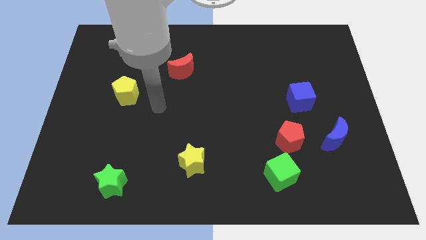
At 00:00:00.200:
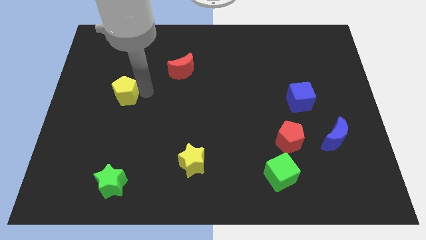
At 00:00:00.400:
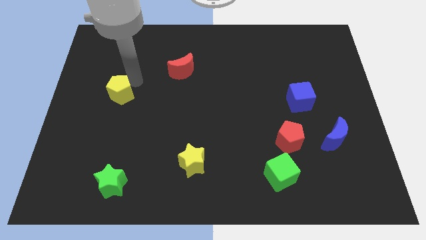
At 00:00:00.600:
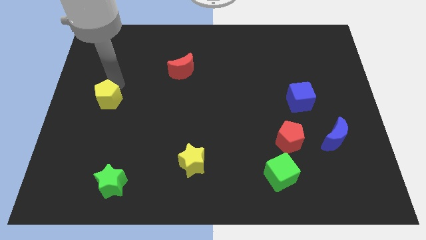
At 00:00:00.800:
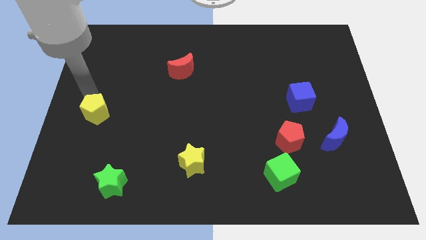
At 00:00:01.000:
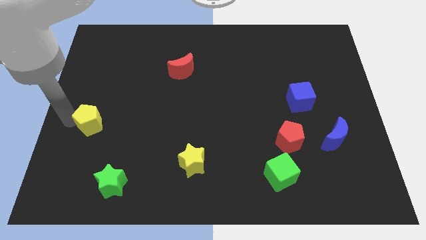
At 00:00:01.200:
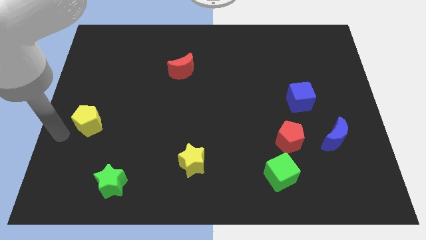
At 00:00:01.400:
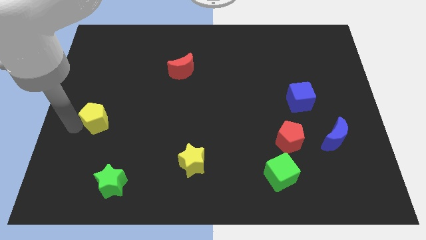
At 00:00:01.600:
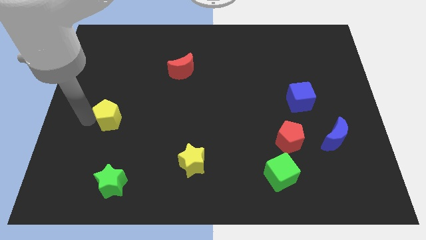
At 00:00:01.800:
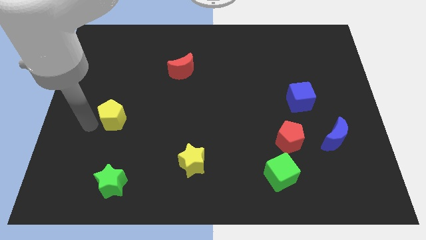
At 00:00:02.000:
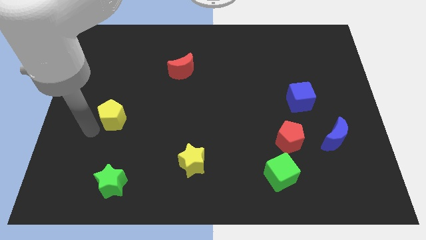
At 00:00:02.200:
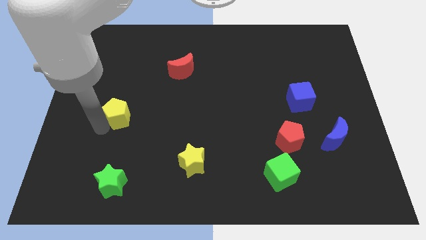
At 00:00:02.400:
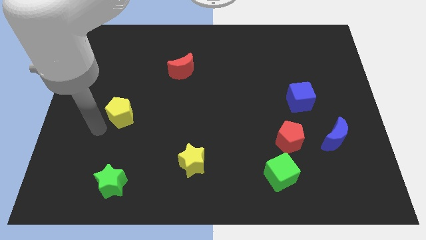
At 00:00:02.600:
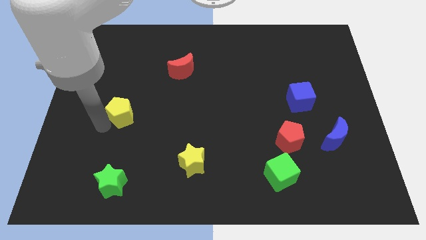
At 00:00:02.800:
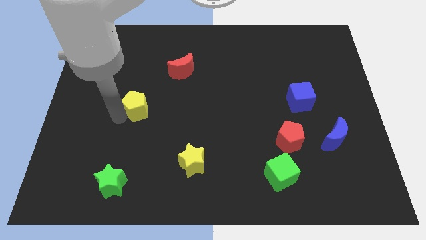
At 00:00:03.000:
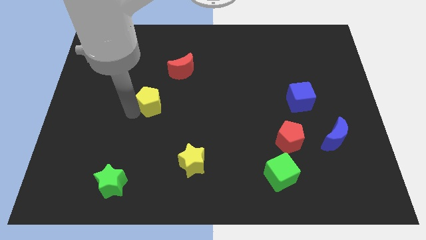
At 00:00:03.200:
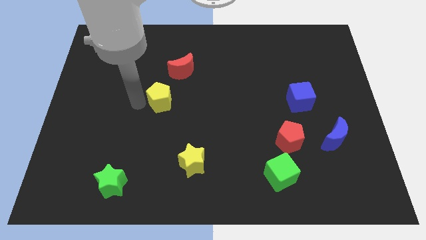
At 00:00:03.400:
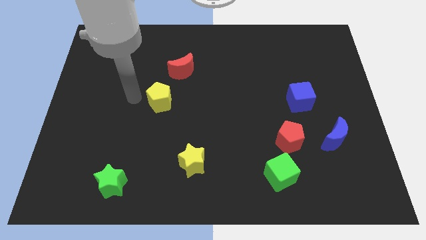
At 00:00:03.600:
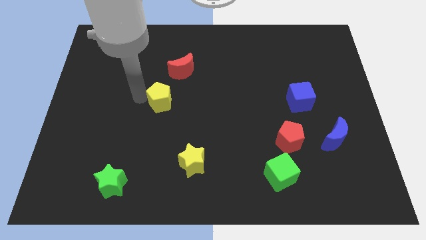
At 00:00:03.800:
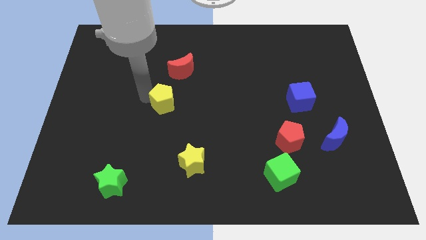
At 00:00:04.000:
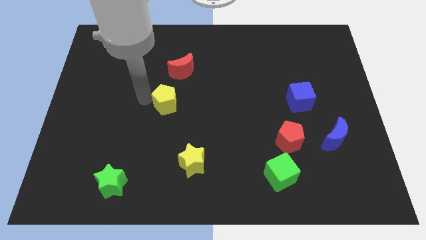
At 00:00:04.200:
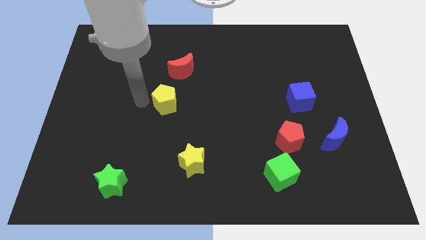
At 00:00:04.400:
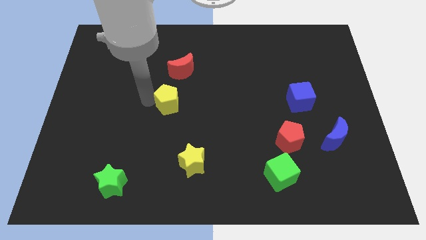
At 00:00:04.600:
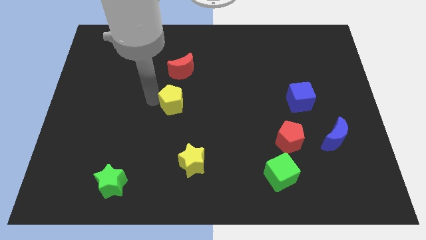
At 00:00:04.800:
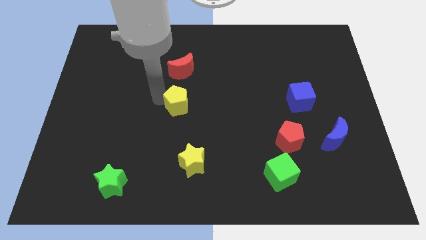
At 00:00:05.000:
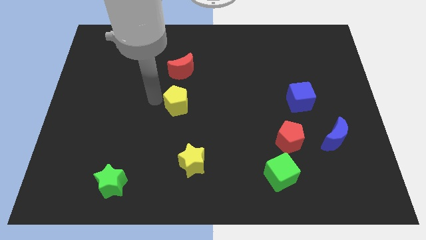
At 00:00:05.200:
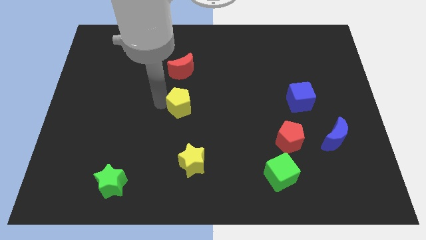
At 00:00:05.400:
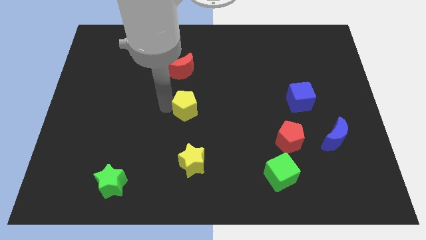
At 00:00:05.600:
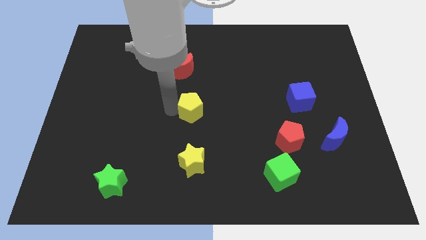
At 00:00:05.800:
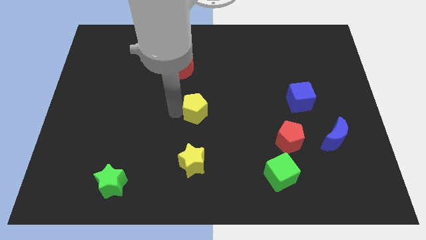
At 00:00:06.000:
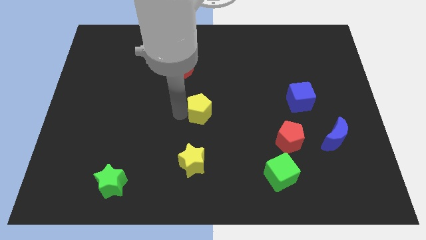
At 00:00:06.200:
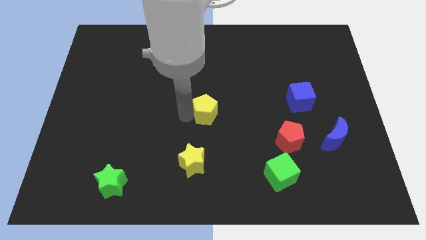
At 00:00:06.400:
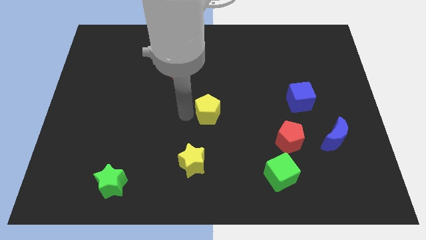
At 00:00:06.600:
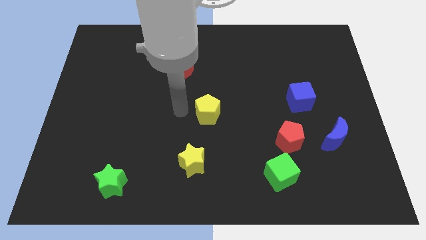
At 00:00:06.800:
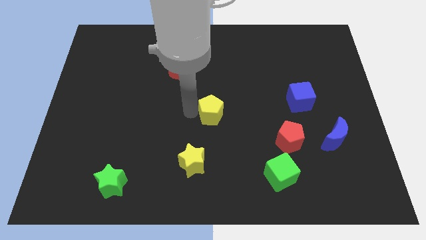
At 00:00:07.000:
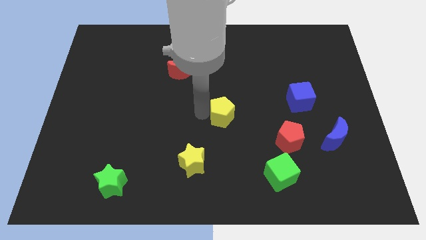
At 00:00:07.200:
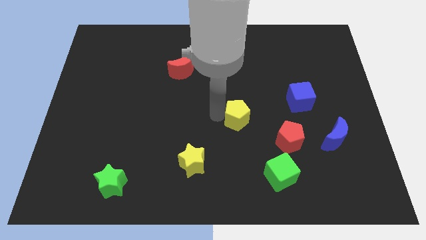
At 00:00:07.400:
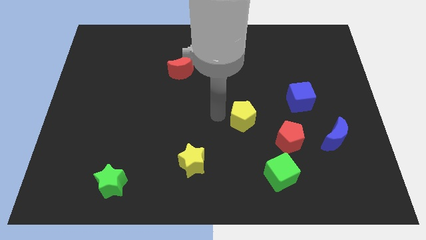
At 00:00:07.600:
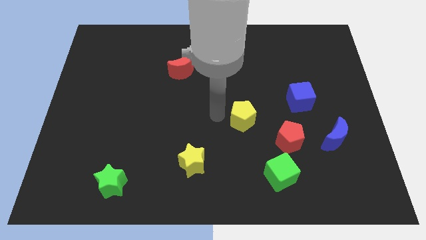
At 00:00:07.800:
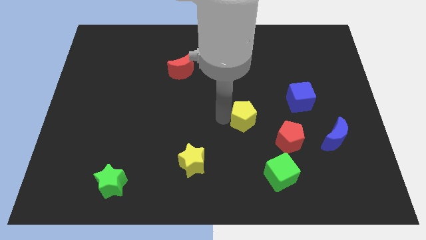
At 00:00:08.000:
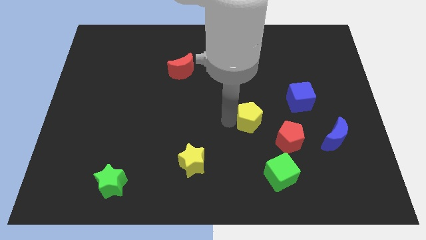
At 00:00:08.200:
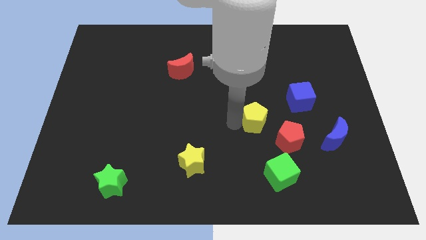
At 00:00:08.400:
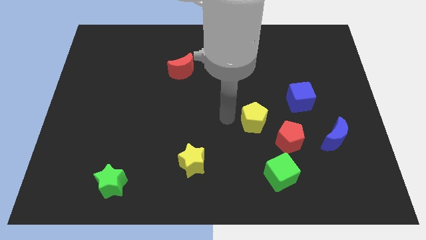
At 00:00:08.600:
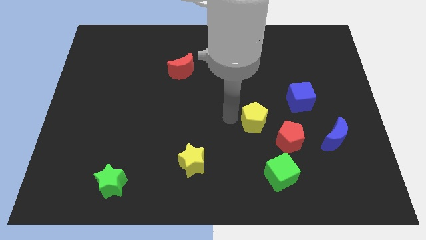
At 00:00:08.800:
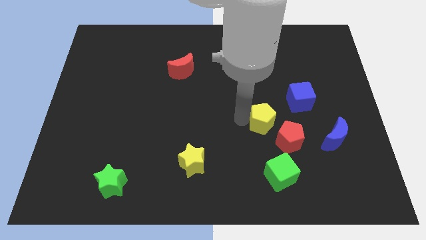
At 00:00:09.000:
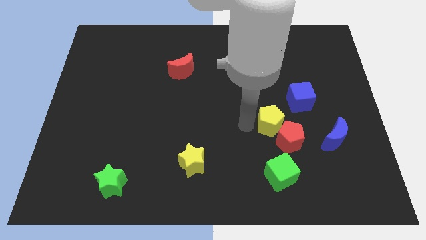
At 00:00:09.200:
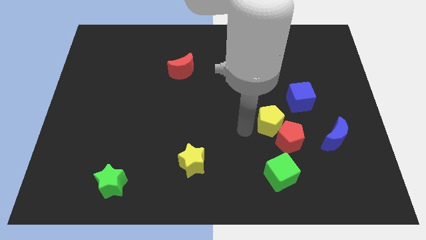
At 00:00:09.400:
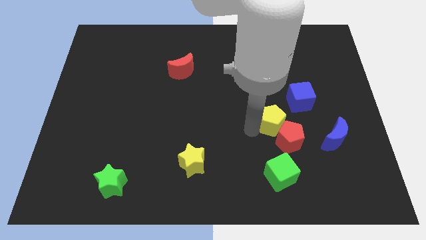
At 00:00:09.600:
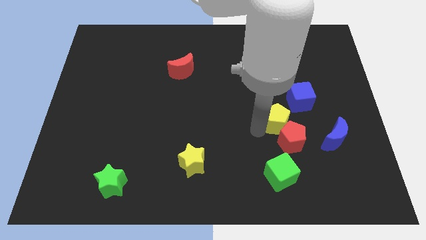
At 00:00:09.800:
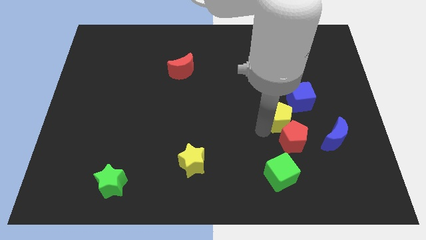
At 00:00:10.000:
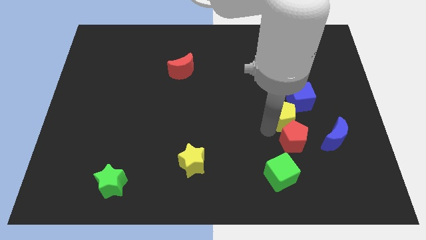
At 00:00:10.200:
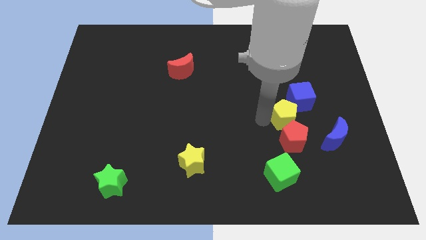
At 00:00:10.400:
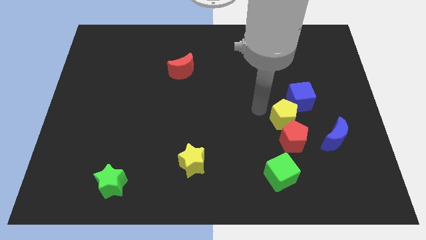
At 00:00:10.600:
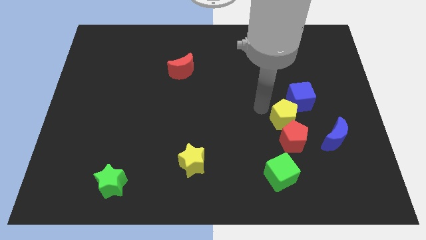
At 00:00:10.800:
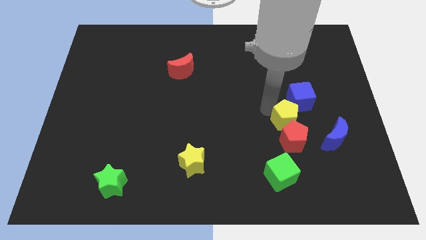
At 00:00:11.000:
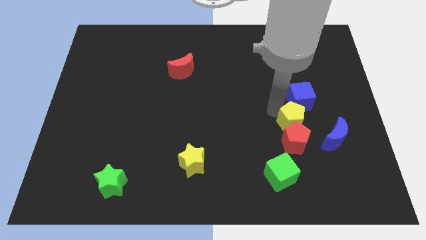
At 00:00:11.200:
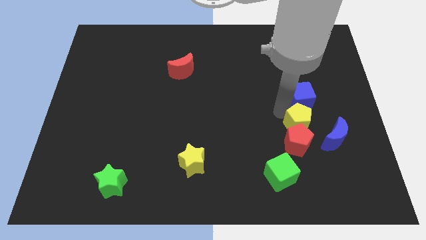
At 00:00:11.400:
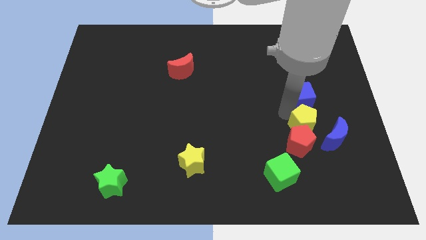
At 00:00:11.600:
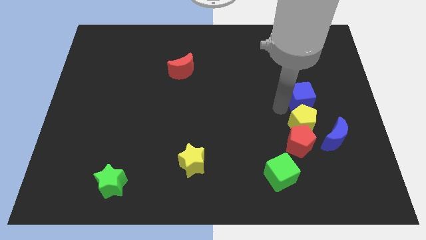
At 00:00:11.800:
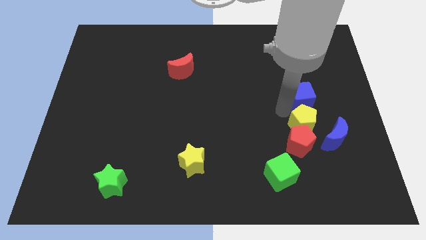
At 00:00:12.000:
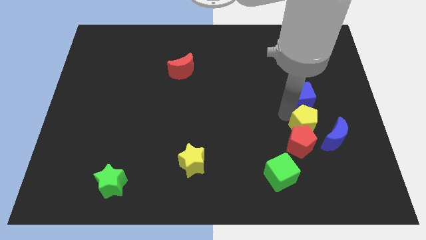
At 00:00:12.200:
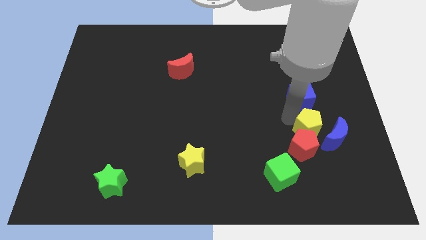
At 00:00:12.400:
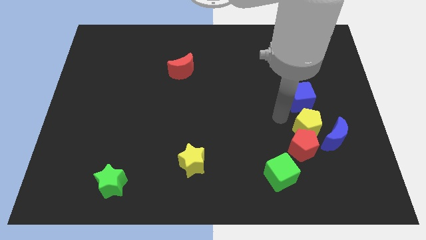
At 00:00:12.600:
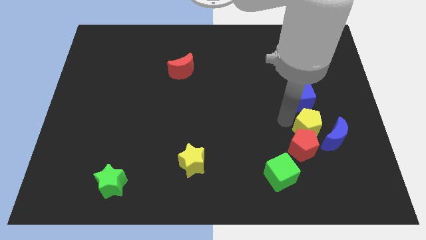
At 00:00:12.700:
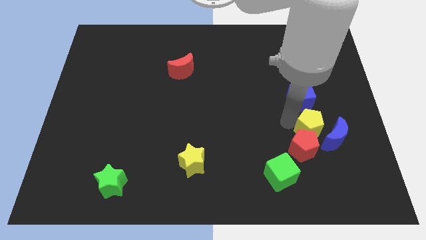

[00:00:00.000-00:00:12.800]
slide the yellow pentagon to the blue moon

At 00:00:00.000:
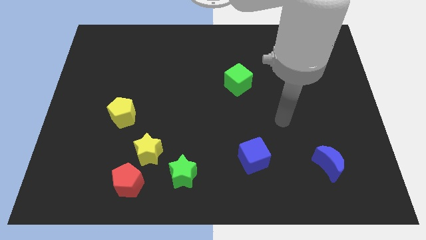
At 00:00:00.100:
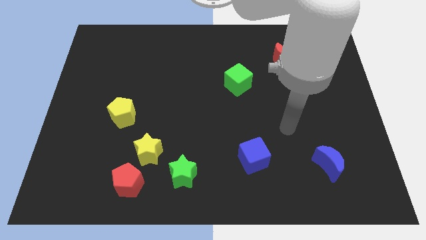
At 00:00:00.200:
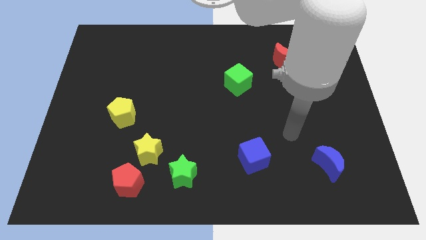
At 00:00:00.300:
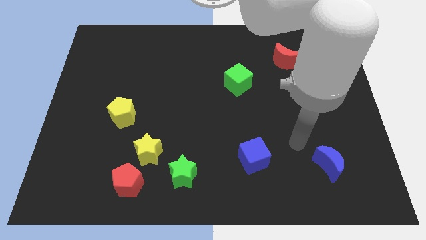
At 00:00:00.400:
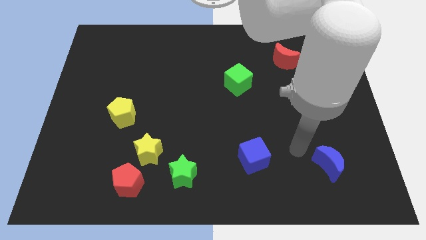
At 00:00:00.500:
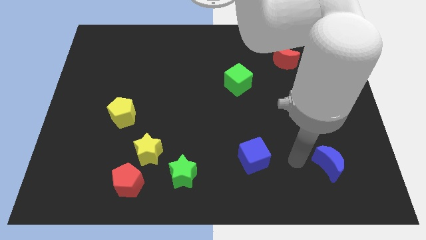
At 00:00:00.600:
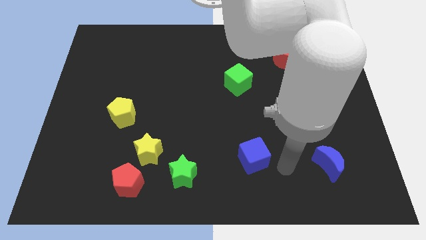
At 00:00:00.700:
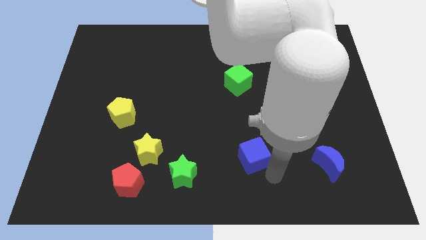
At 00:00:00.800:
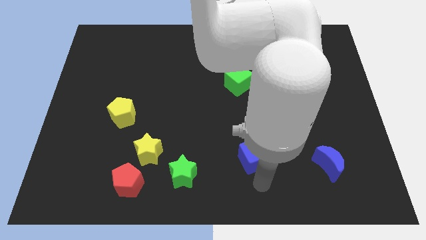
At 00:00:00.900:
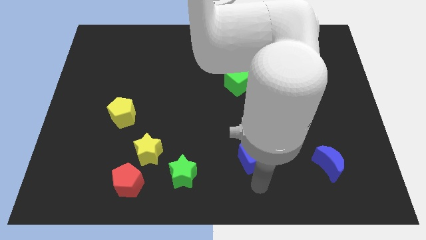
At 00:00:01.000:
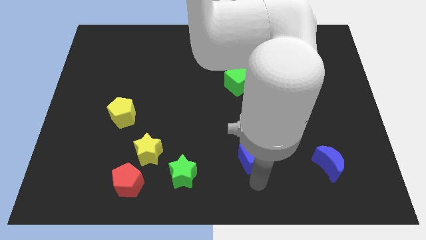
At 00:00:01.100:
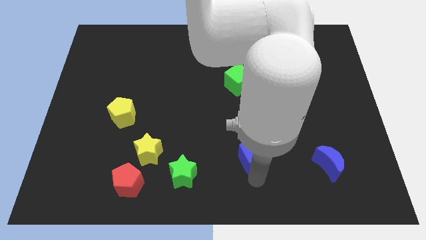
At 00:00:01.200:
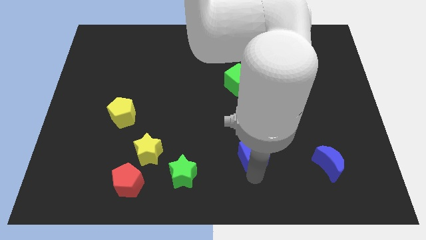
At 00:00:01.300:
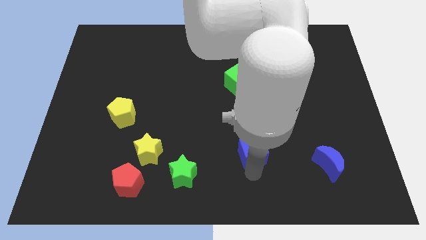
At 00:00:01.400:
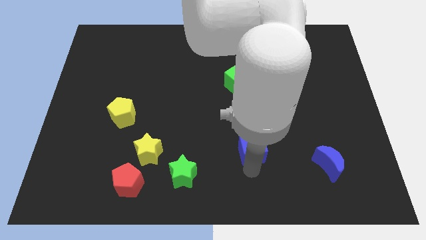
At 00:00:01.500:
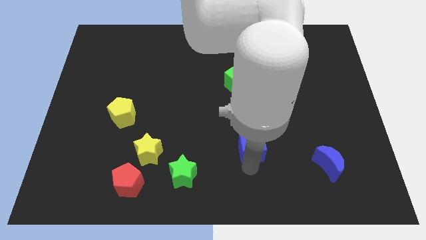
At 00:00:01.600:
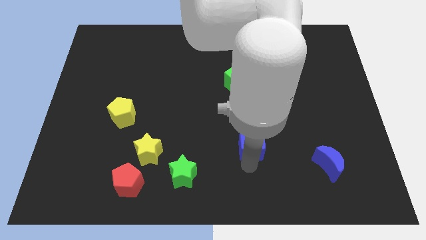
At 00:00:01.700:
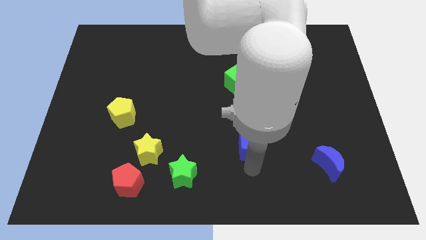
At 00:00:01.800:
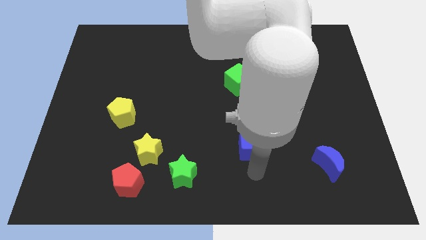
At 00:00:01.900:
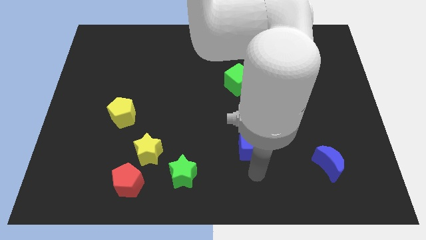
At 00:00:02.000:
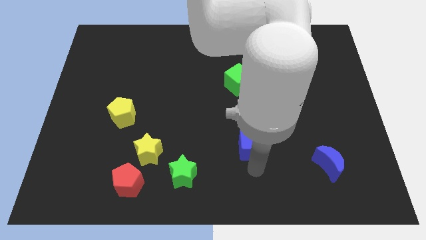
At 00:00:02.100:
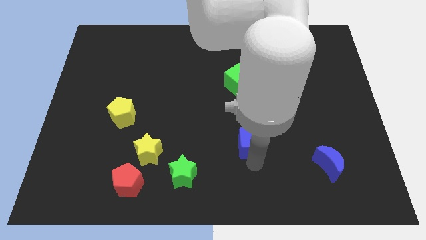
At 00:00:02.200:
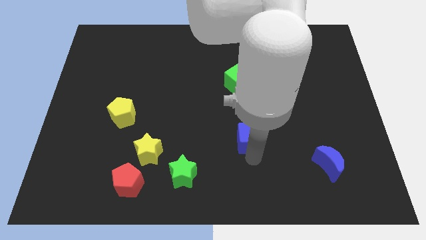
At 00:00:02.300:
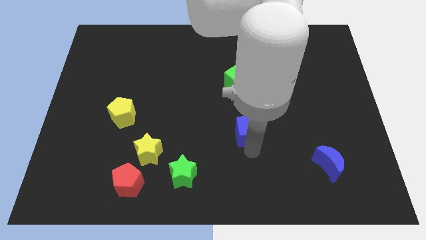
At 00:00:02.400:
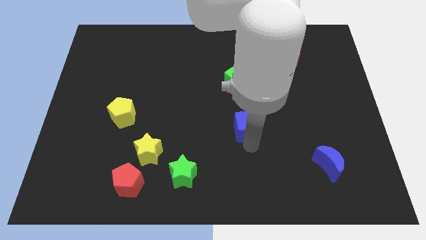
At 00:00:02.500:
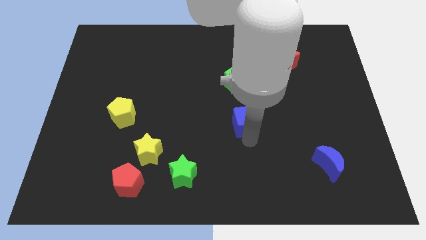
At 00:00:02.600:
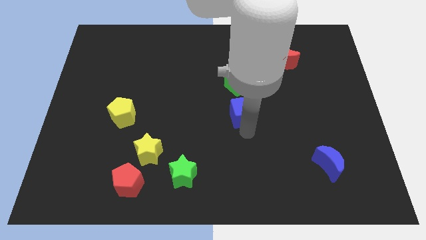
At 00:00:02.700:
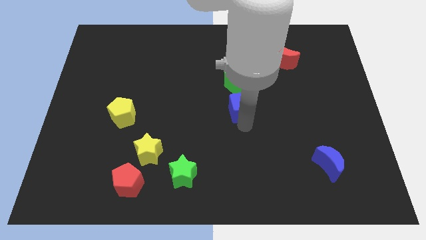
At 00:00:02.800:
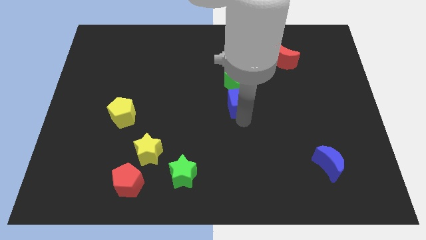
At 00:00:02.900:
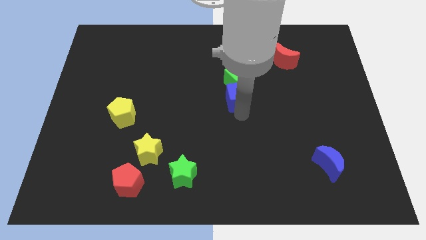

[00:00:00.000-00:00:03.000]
put the blue cube next to the green cube
